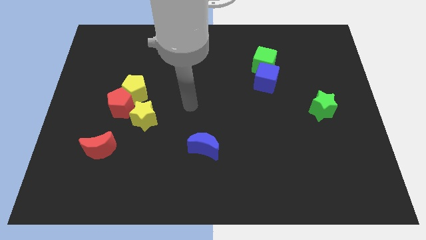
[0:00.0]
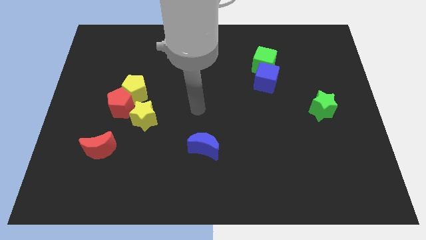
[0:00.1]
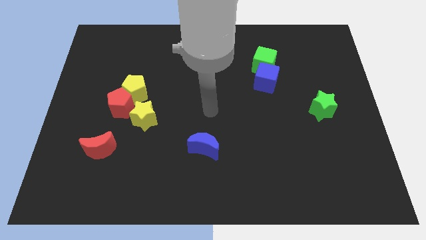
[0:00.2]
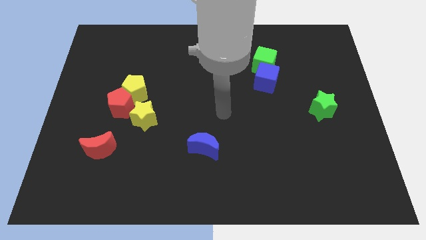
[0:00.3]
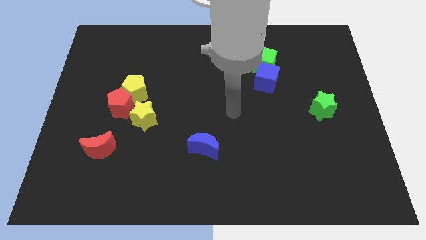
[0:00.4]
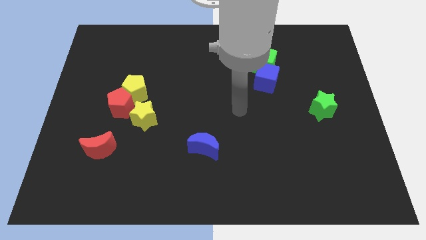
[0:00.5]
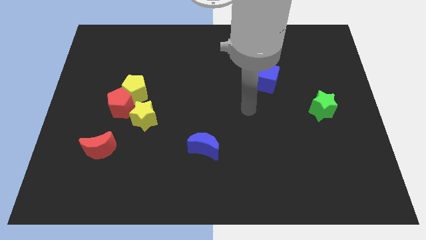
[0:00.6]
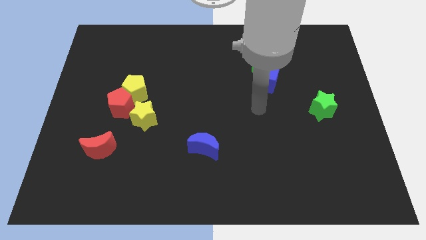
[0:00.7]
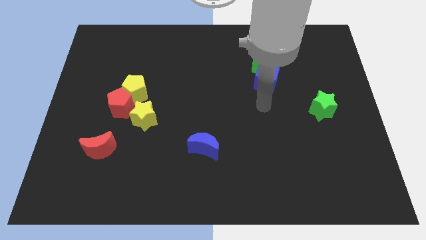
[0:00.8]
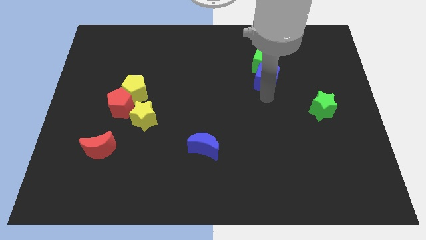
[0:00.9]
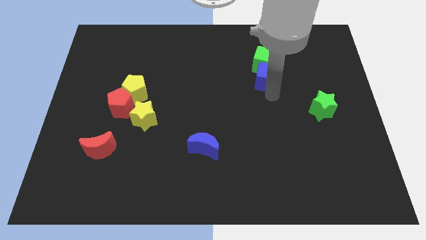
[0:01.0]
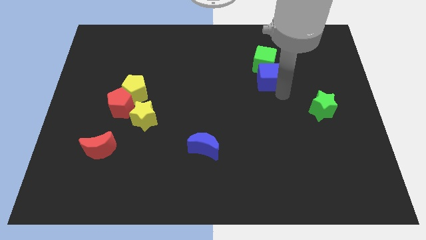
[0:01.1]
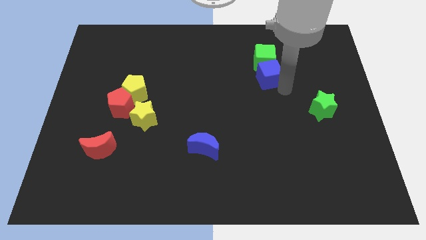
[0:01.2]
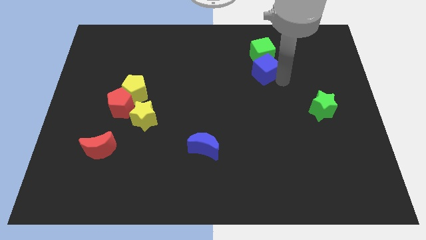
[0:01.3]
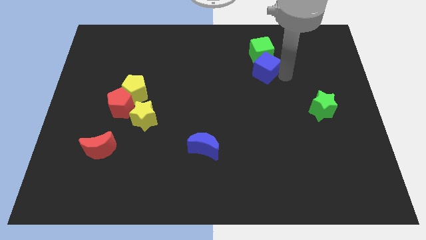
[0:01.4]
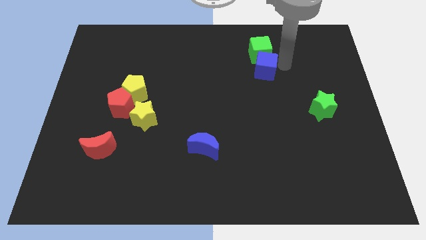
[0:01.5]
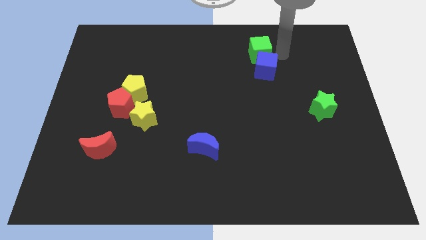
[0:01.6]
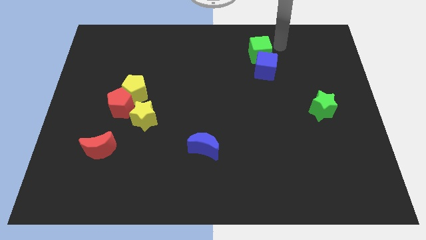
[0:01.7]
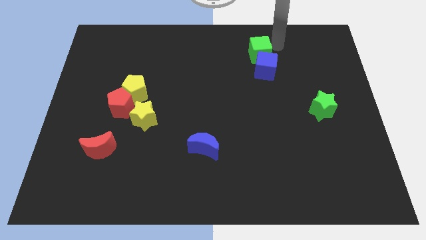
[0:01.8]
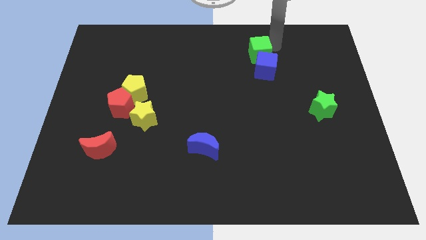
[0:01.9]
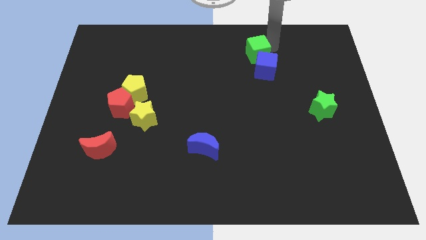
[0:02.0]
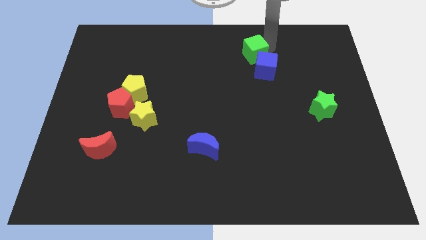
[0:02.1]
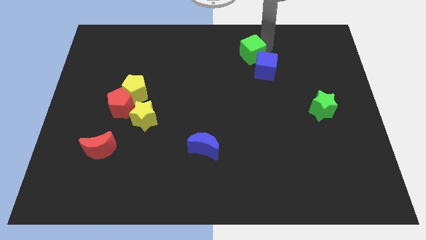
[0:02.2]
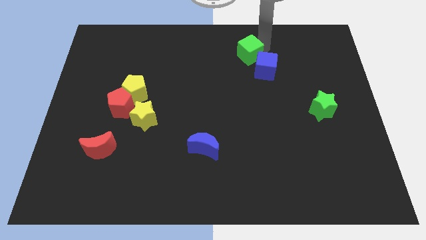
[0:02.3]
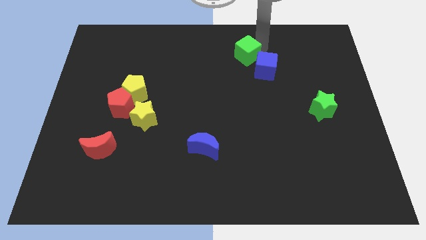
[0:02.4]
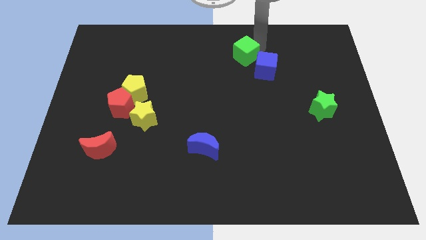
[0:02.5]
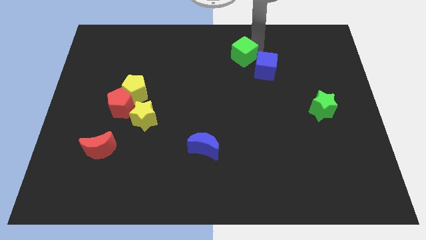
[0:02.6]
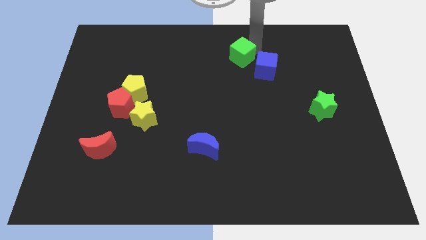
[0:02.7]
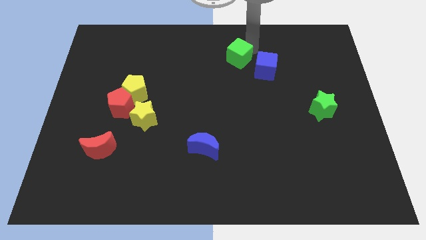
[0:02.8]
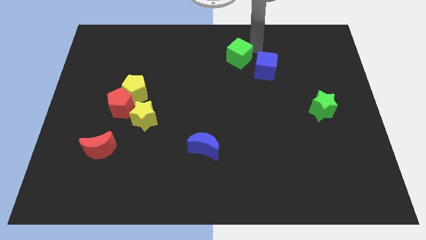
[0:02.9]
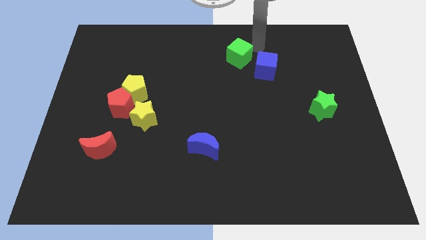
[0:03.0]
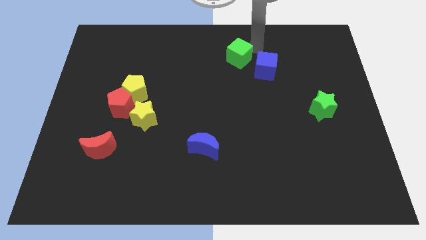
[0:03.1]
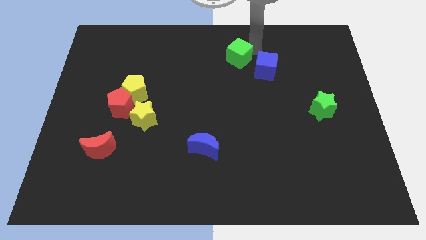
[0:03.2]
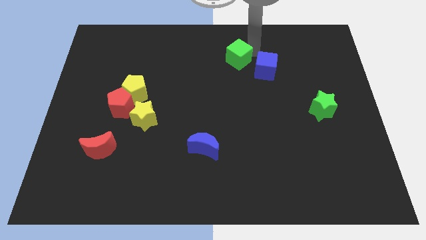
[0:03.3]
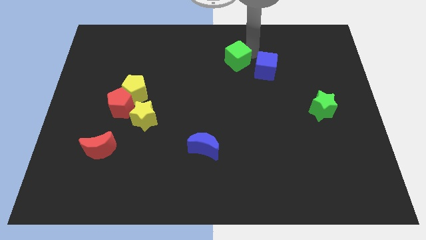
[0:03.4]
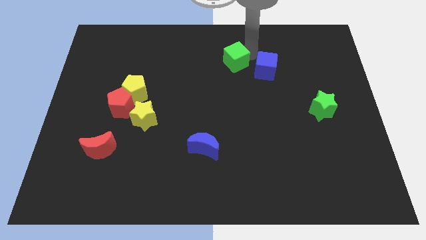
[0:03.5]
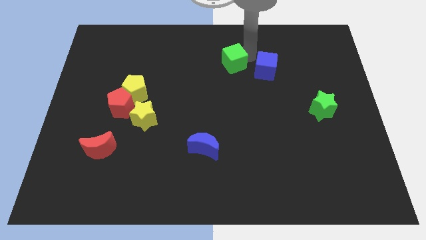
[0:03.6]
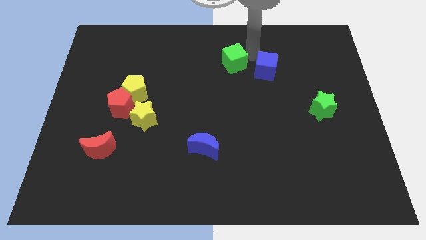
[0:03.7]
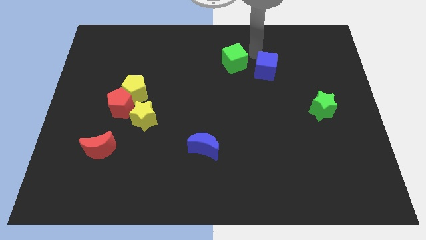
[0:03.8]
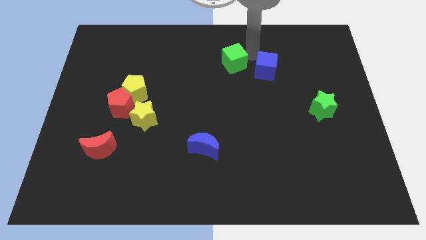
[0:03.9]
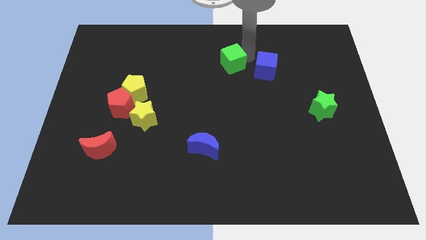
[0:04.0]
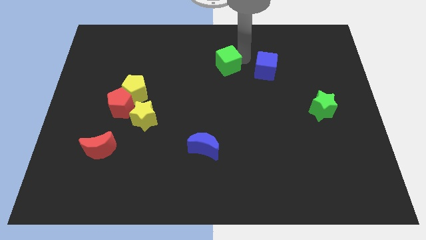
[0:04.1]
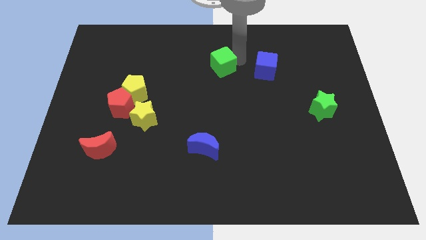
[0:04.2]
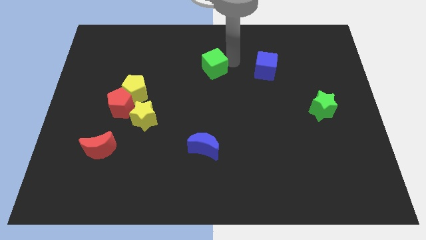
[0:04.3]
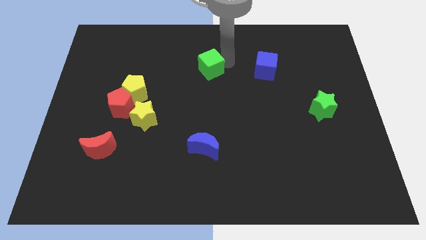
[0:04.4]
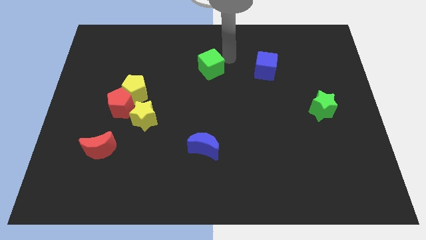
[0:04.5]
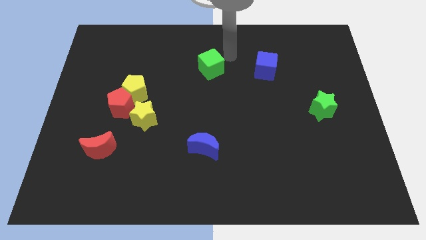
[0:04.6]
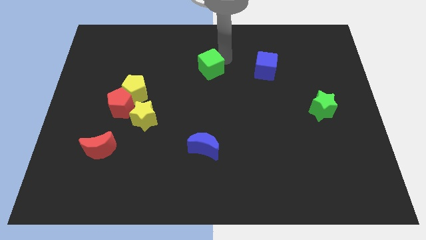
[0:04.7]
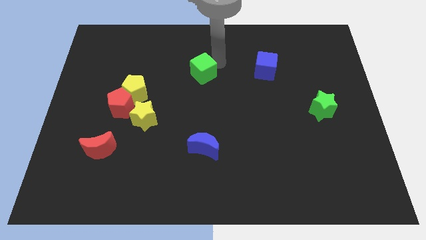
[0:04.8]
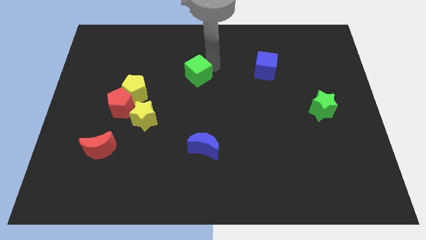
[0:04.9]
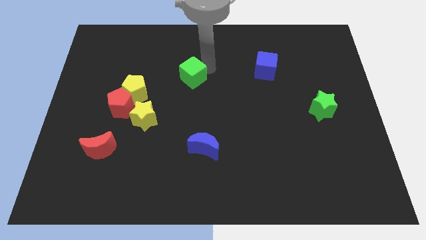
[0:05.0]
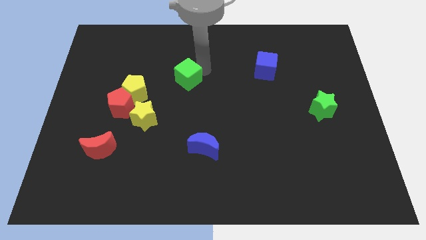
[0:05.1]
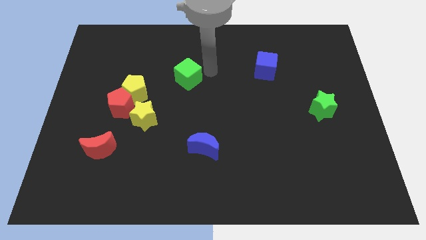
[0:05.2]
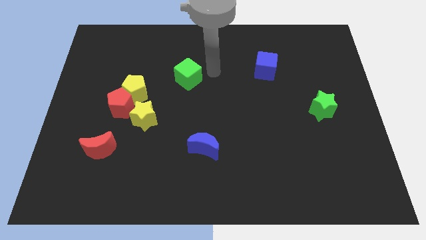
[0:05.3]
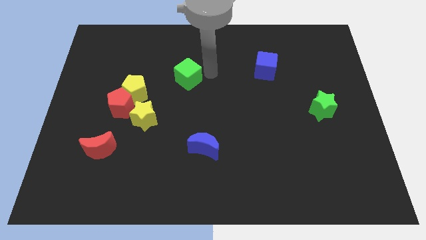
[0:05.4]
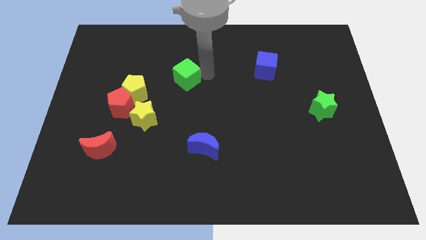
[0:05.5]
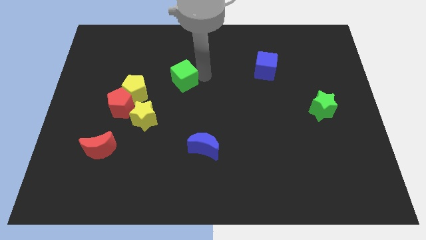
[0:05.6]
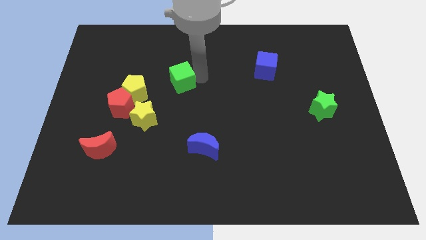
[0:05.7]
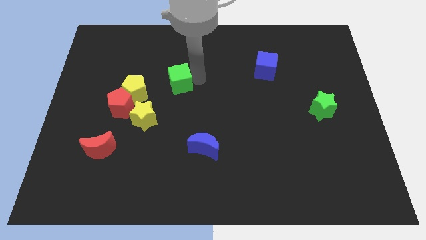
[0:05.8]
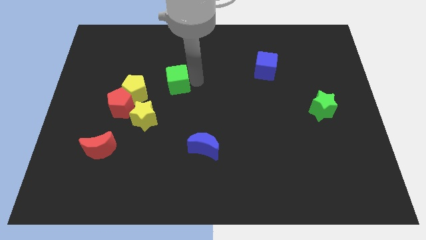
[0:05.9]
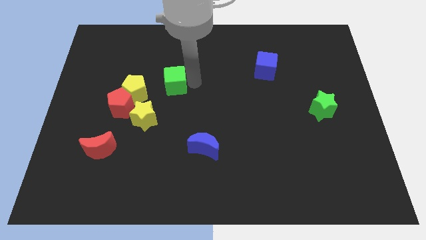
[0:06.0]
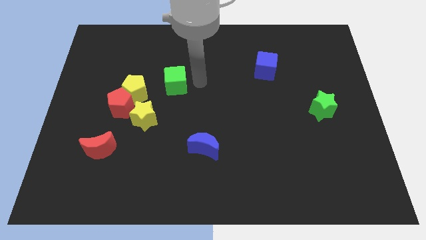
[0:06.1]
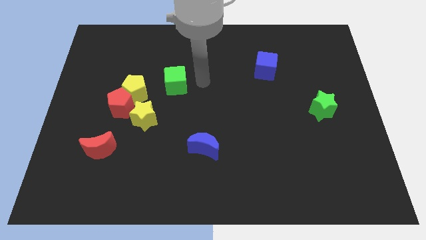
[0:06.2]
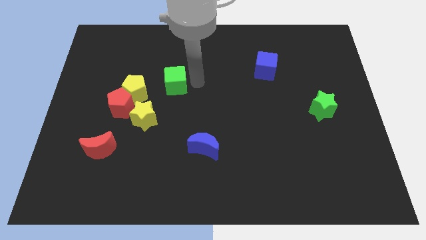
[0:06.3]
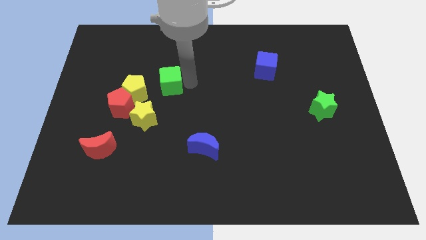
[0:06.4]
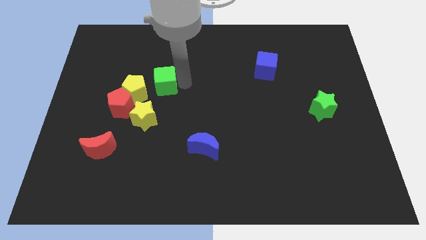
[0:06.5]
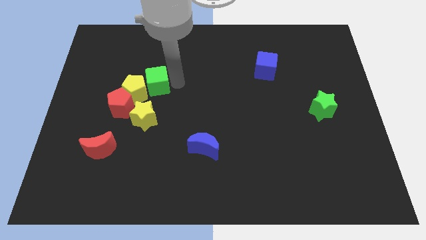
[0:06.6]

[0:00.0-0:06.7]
slide the green cube close to the yellow pentagon

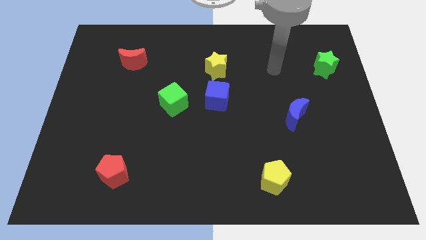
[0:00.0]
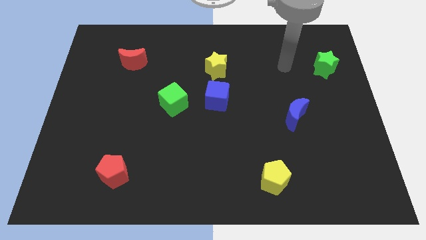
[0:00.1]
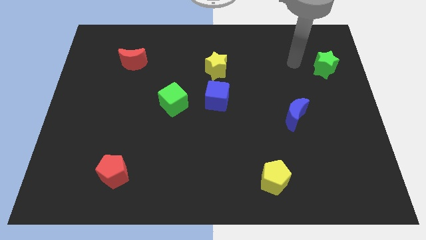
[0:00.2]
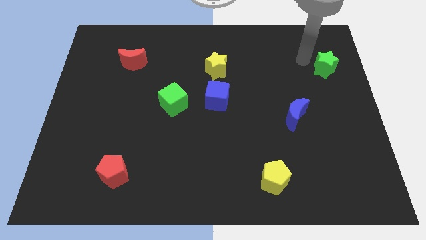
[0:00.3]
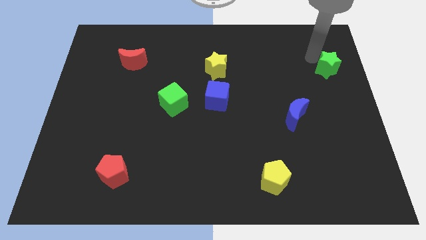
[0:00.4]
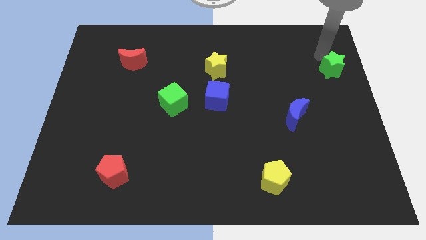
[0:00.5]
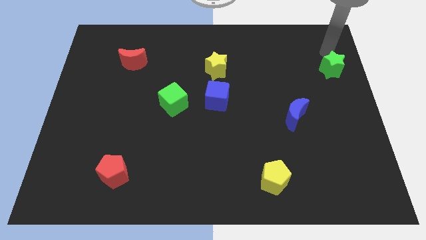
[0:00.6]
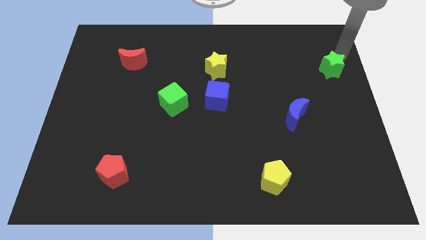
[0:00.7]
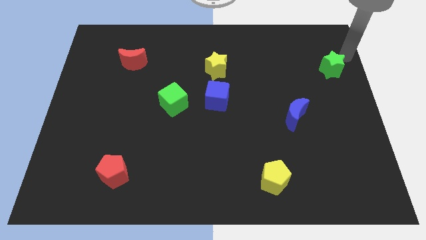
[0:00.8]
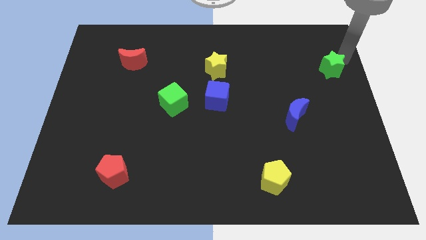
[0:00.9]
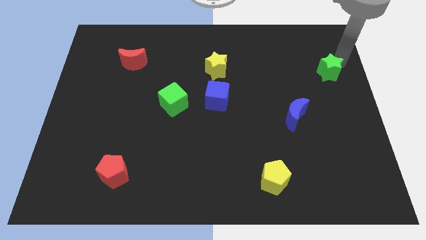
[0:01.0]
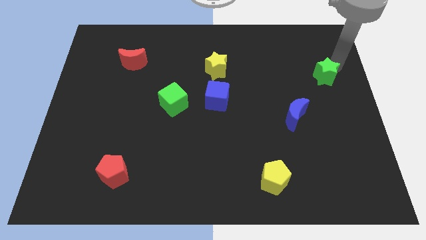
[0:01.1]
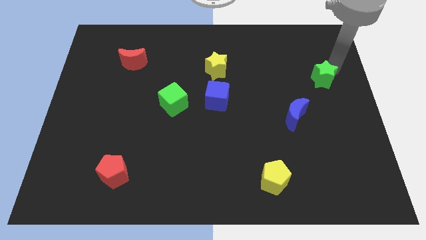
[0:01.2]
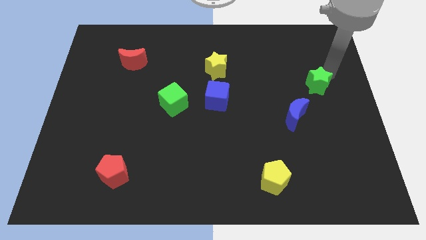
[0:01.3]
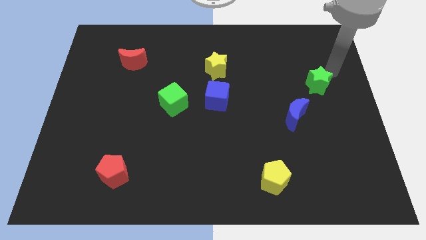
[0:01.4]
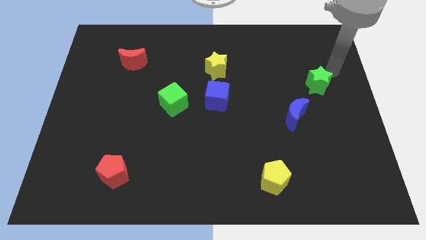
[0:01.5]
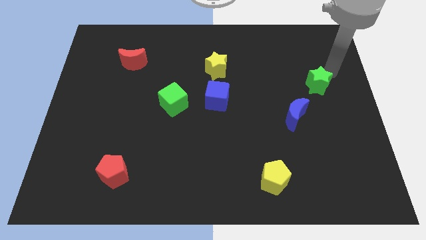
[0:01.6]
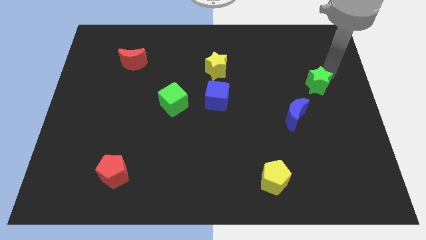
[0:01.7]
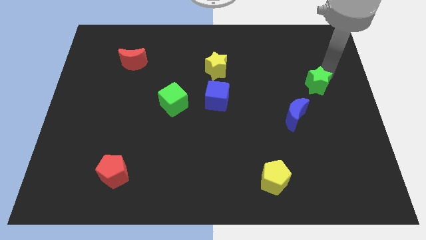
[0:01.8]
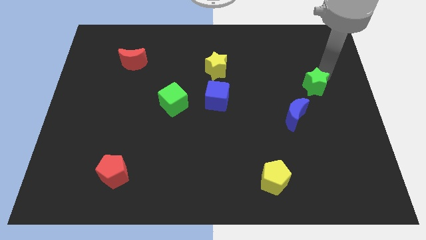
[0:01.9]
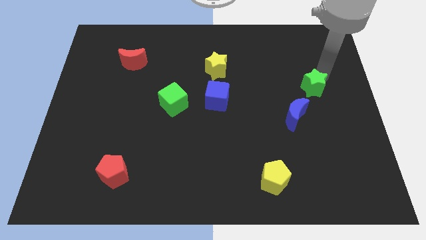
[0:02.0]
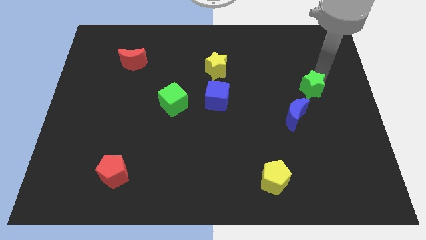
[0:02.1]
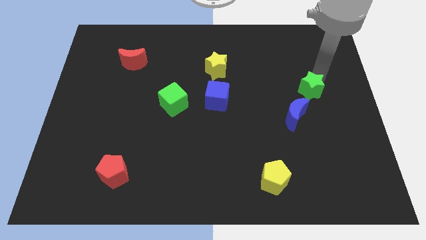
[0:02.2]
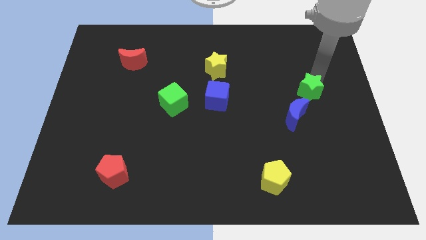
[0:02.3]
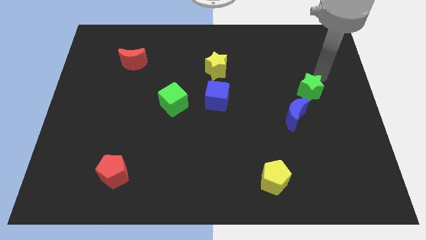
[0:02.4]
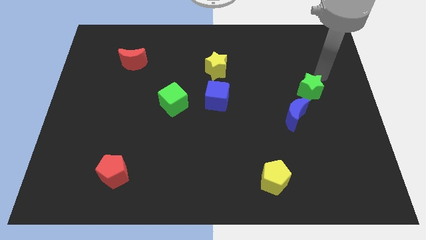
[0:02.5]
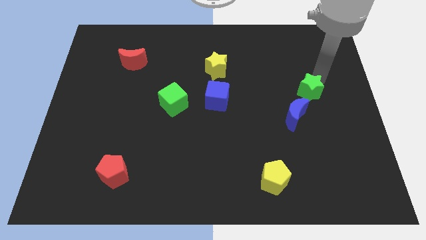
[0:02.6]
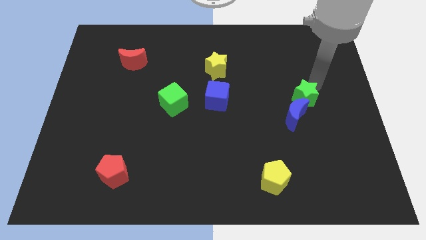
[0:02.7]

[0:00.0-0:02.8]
put the green star towards the blue moon
